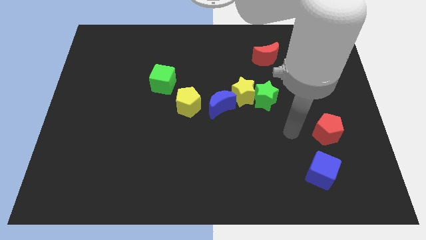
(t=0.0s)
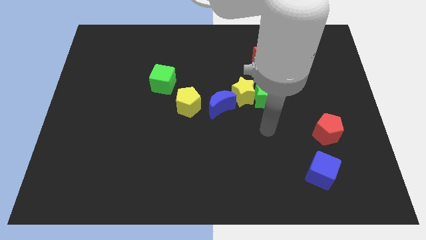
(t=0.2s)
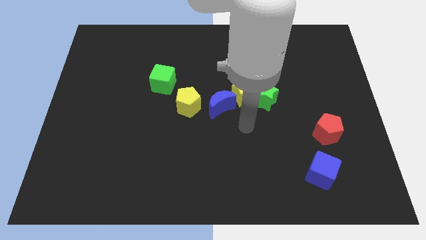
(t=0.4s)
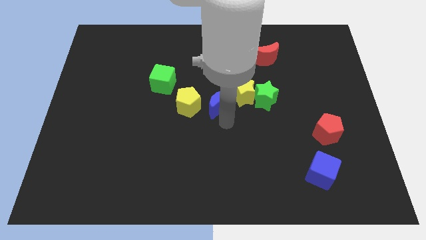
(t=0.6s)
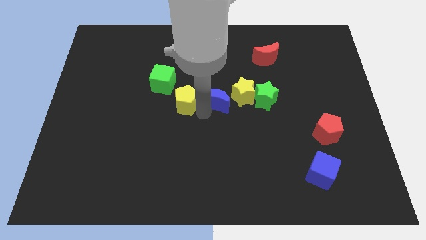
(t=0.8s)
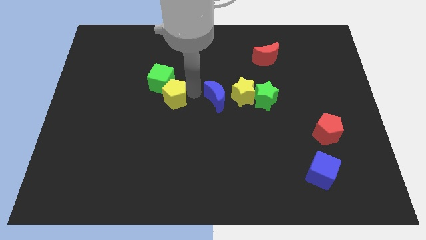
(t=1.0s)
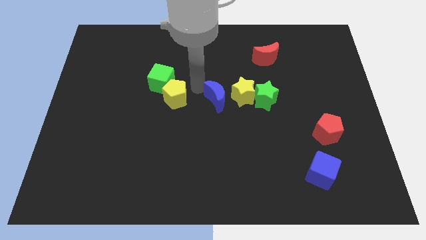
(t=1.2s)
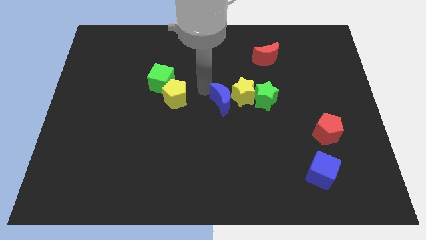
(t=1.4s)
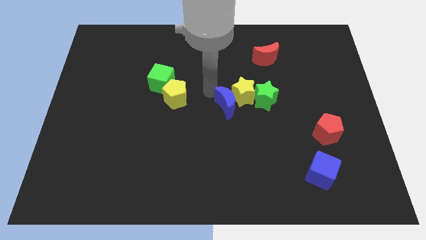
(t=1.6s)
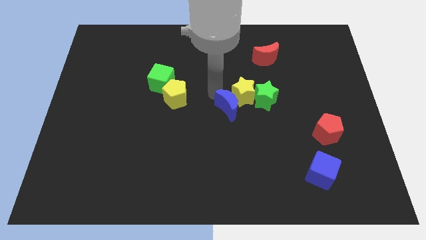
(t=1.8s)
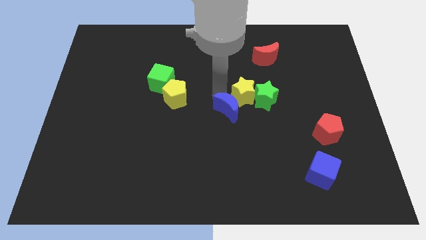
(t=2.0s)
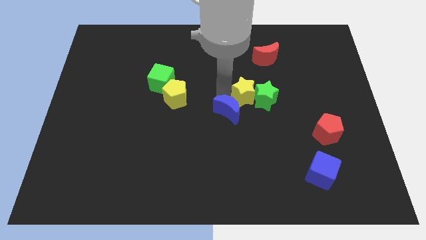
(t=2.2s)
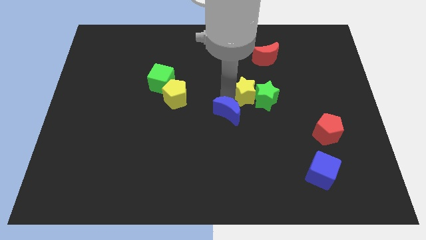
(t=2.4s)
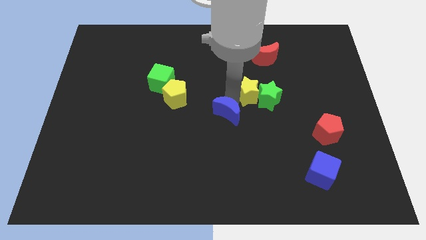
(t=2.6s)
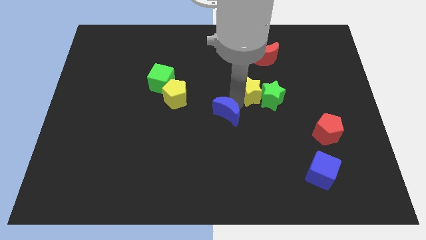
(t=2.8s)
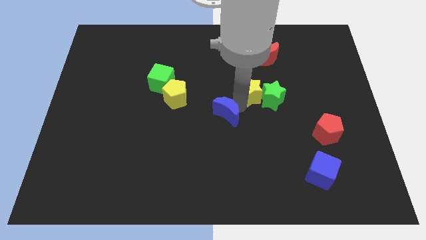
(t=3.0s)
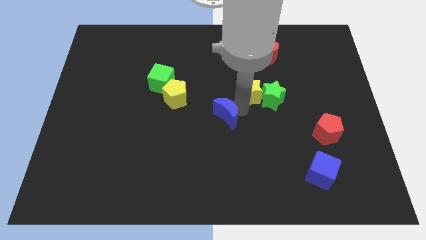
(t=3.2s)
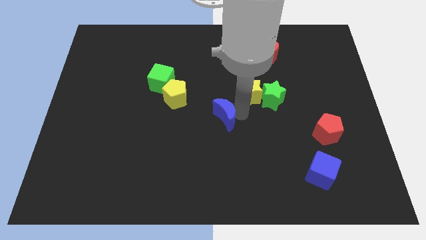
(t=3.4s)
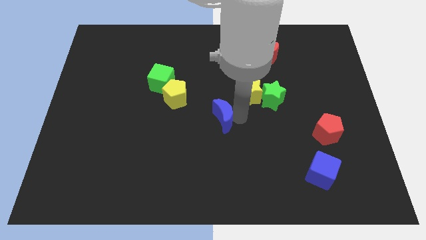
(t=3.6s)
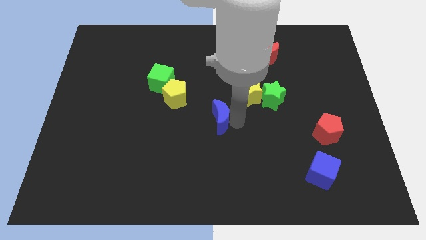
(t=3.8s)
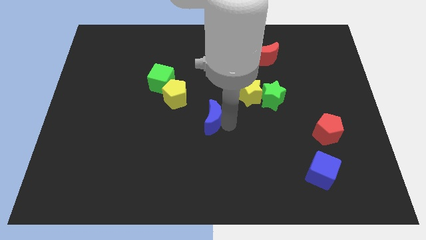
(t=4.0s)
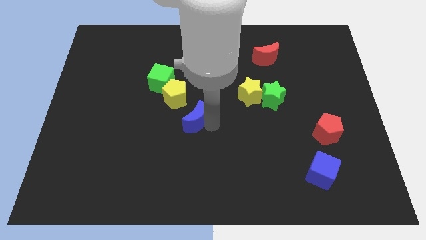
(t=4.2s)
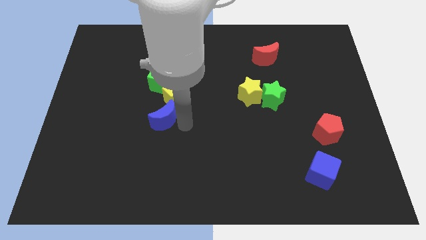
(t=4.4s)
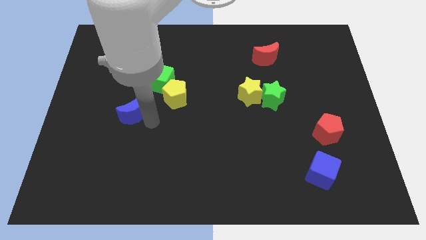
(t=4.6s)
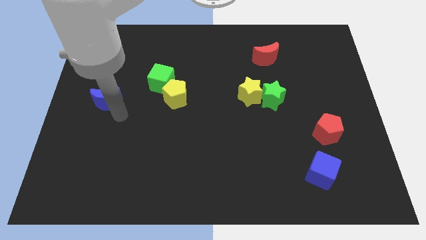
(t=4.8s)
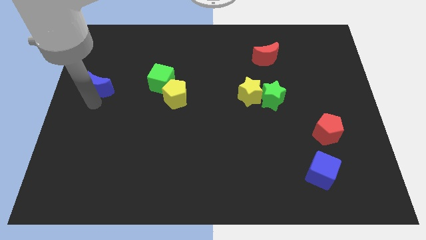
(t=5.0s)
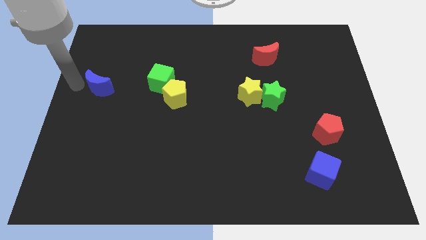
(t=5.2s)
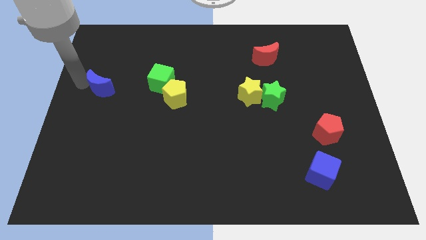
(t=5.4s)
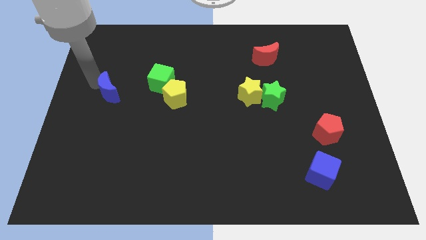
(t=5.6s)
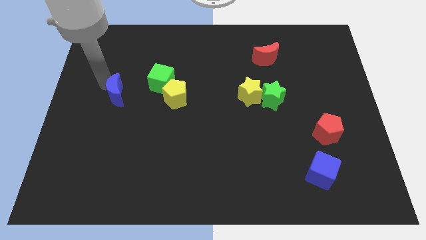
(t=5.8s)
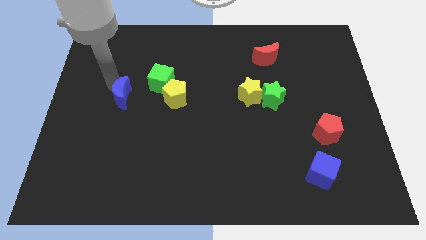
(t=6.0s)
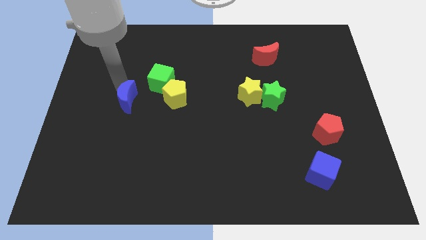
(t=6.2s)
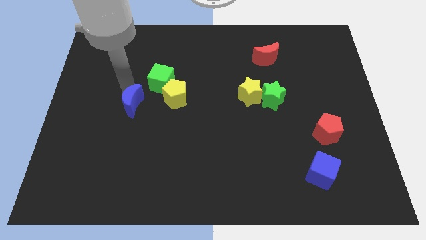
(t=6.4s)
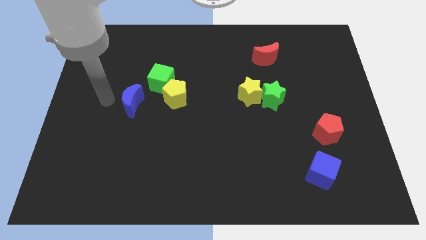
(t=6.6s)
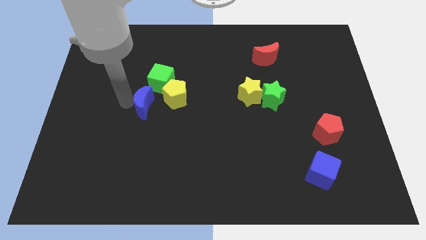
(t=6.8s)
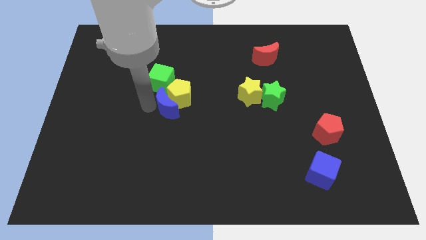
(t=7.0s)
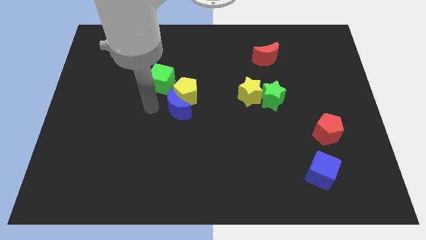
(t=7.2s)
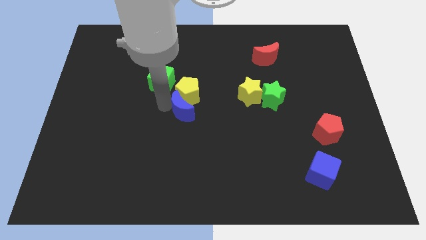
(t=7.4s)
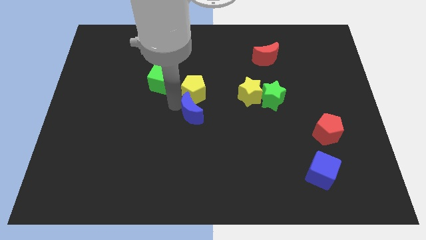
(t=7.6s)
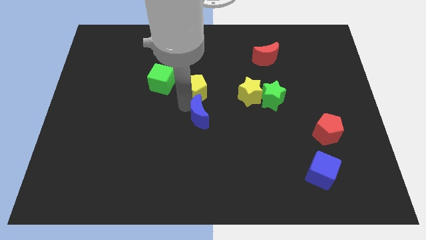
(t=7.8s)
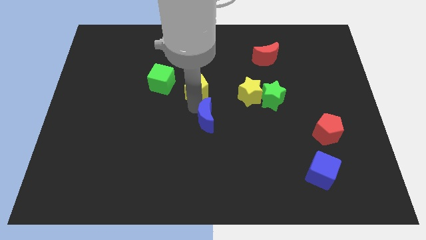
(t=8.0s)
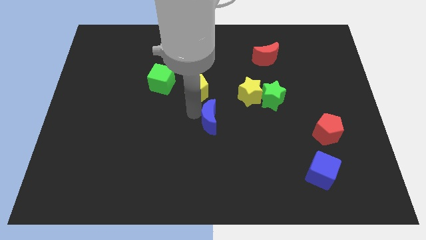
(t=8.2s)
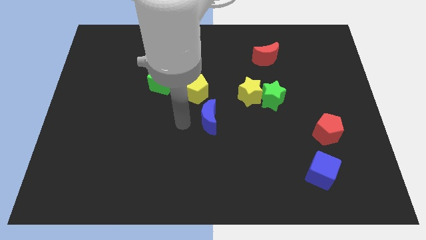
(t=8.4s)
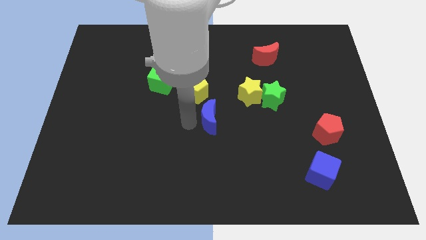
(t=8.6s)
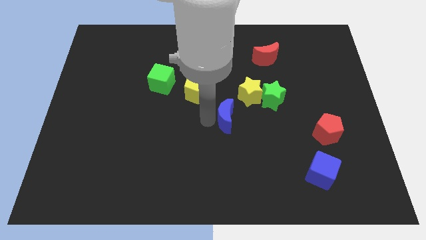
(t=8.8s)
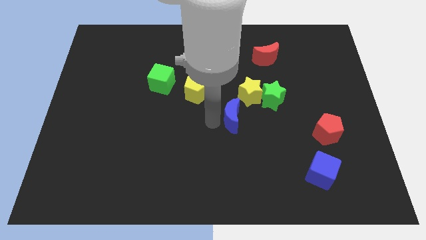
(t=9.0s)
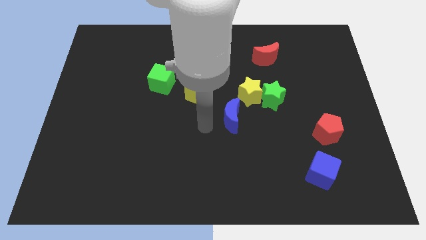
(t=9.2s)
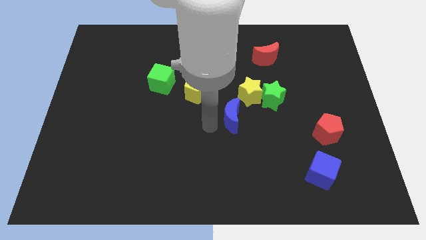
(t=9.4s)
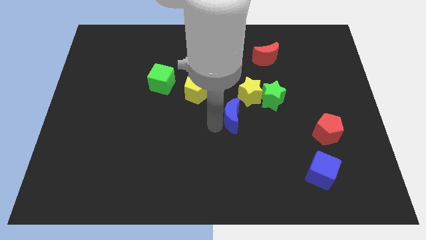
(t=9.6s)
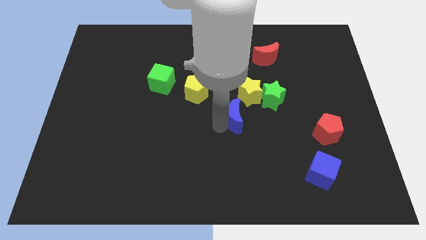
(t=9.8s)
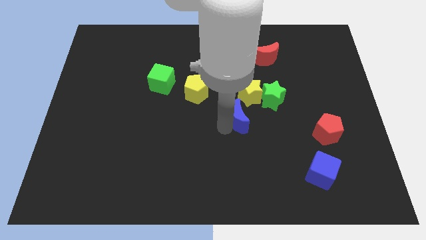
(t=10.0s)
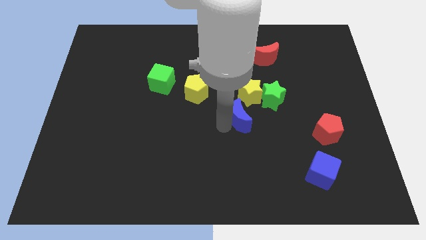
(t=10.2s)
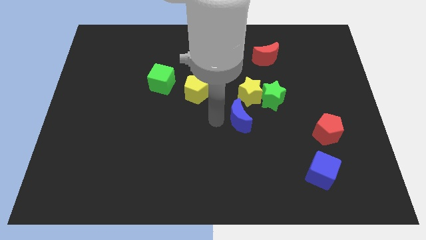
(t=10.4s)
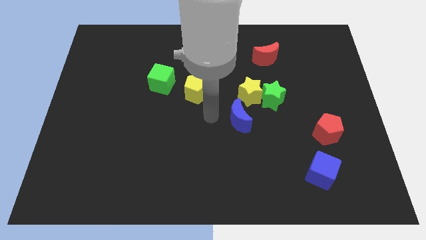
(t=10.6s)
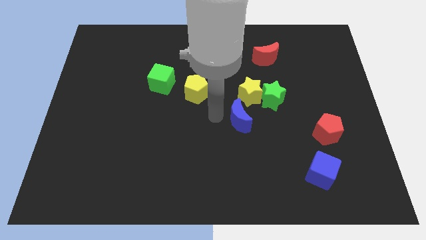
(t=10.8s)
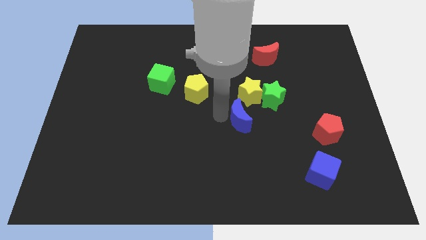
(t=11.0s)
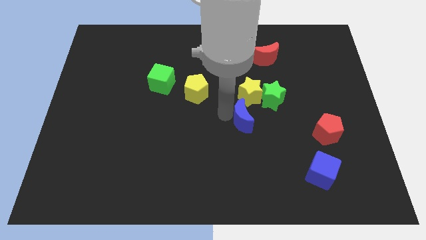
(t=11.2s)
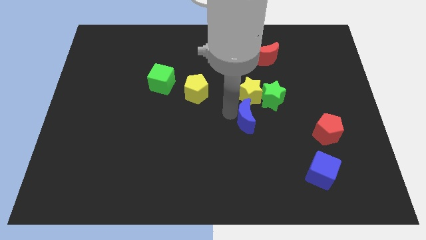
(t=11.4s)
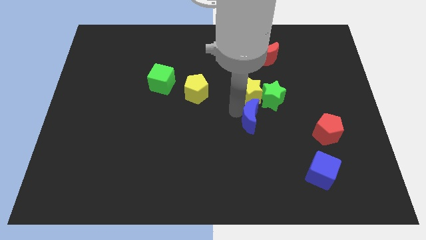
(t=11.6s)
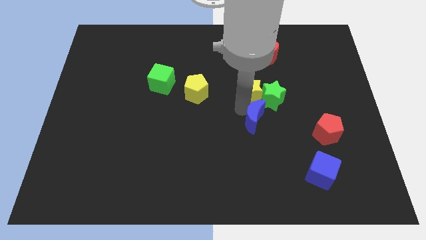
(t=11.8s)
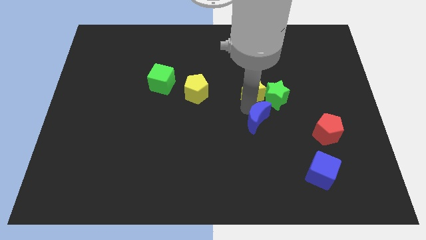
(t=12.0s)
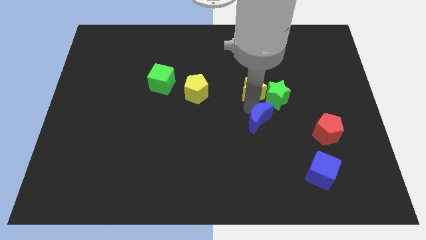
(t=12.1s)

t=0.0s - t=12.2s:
push the blue moon to the left side of the red pentagon

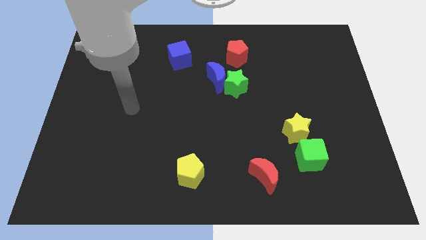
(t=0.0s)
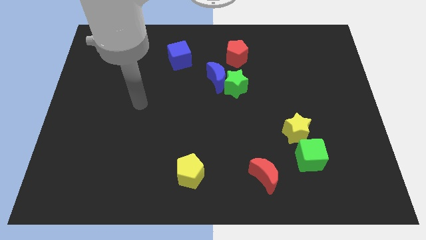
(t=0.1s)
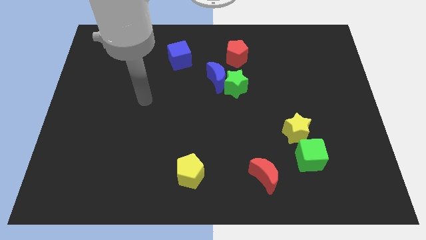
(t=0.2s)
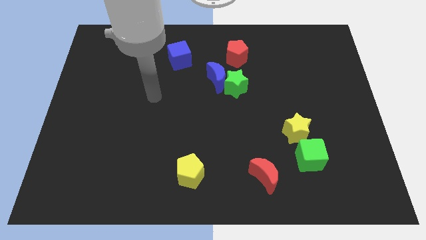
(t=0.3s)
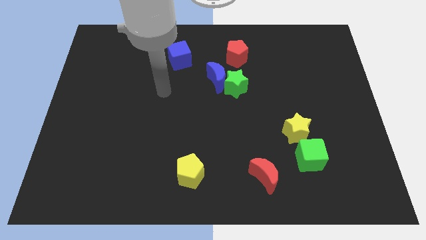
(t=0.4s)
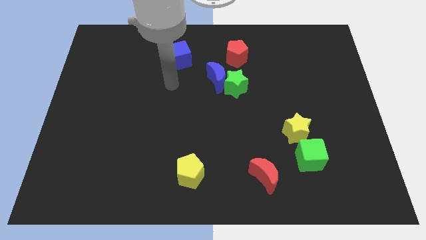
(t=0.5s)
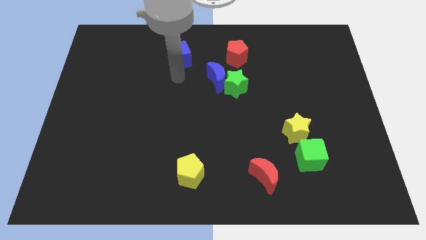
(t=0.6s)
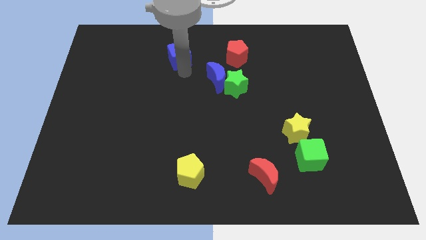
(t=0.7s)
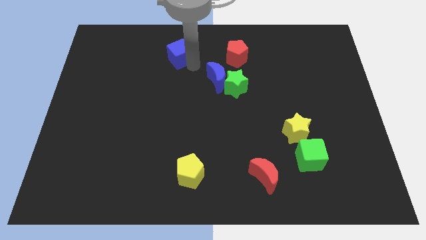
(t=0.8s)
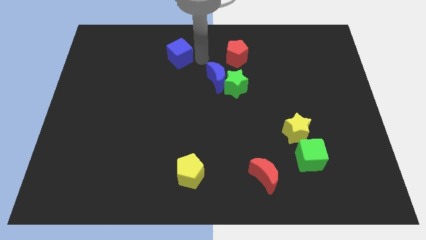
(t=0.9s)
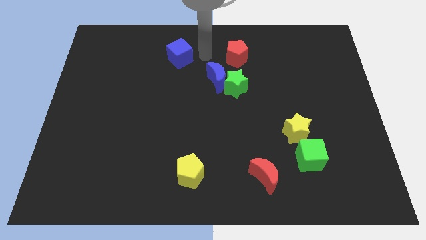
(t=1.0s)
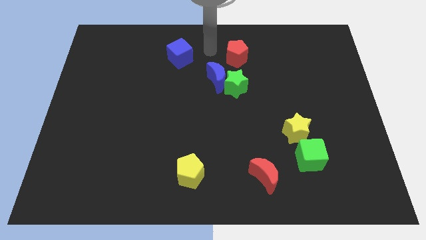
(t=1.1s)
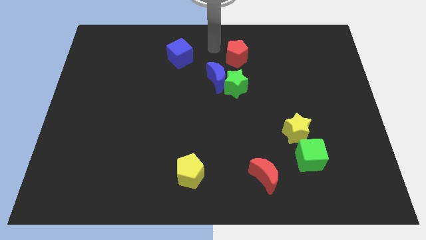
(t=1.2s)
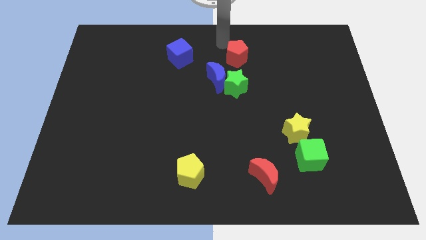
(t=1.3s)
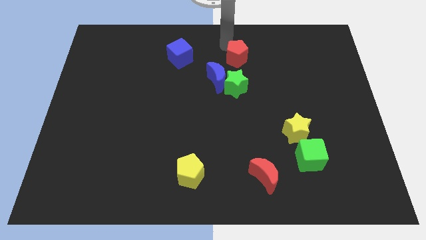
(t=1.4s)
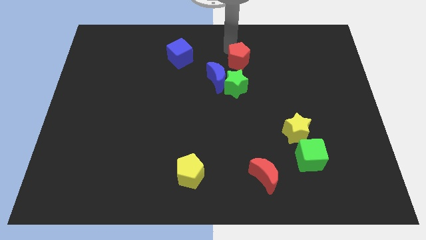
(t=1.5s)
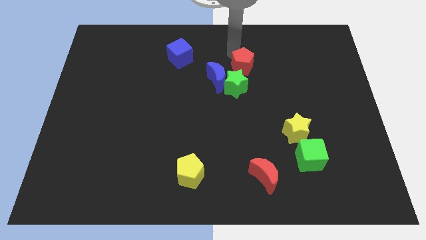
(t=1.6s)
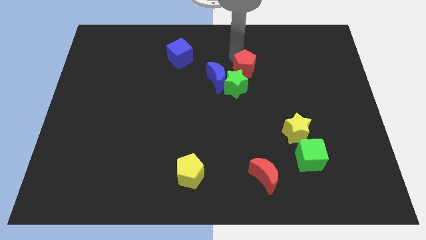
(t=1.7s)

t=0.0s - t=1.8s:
slide the red pentagon to the right side of the blue moon
